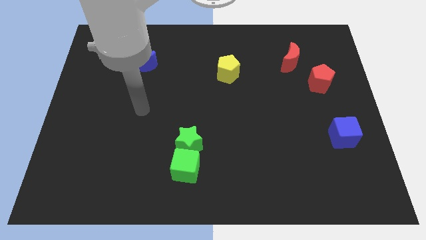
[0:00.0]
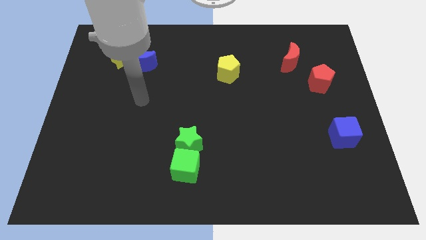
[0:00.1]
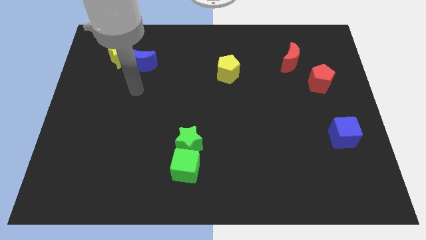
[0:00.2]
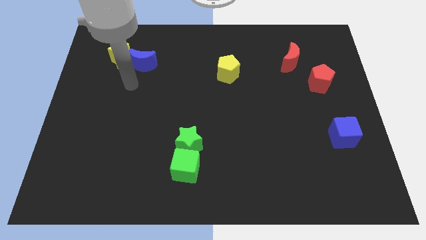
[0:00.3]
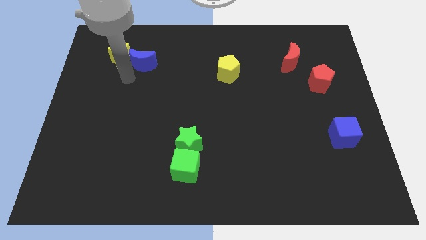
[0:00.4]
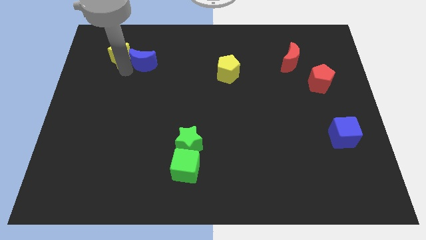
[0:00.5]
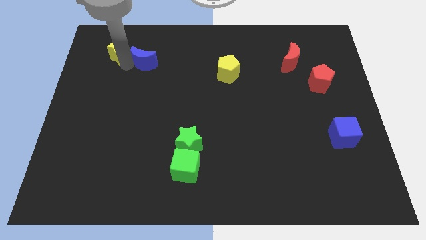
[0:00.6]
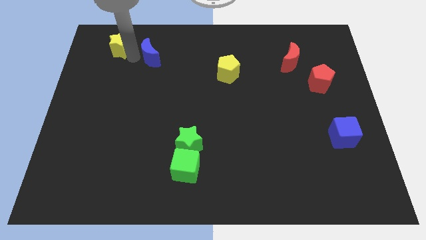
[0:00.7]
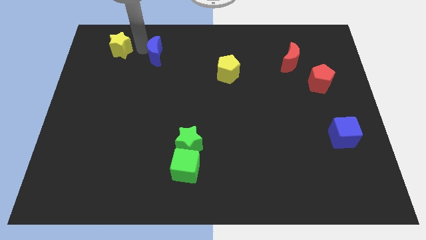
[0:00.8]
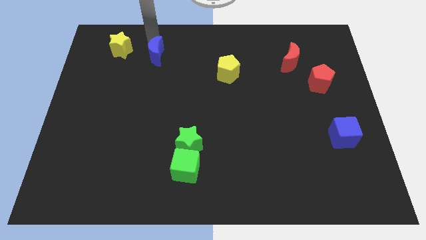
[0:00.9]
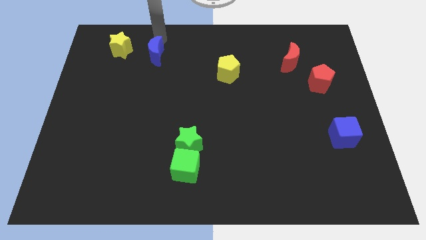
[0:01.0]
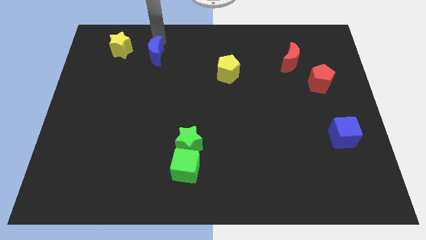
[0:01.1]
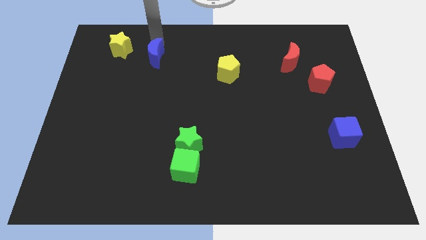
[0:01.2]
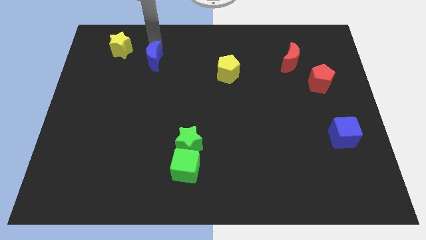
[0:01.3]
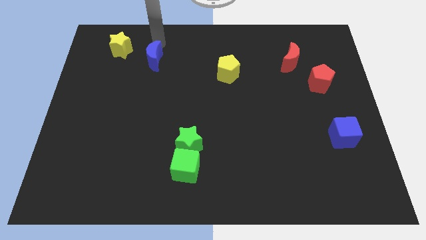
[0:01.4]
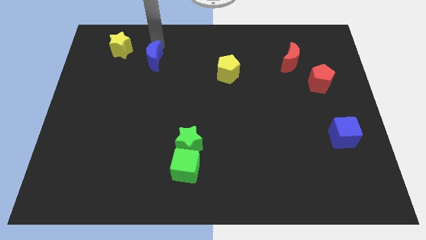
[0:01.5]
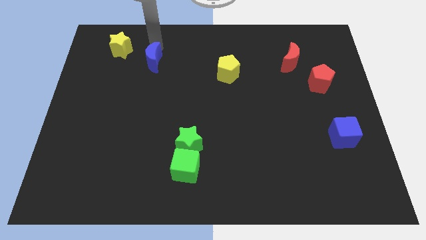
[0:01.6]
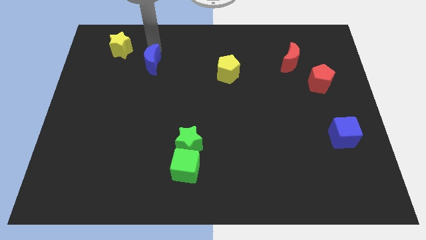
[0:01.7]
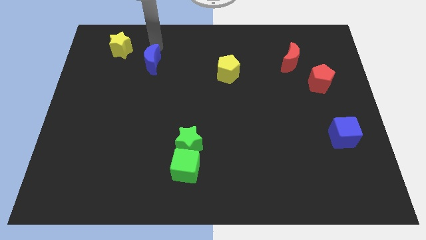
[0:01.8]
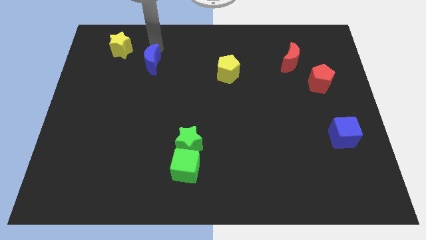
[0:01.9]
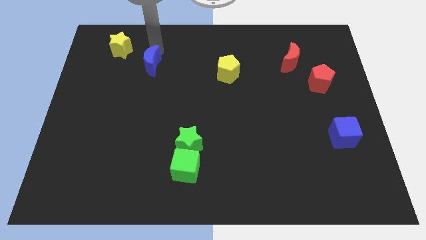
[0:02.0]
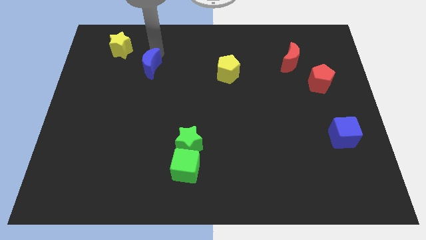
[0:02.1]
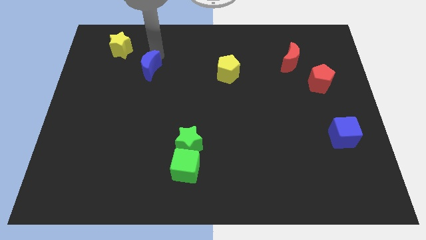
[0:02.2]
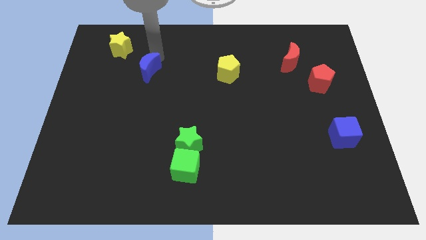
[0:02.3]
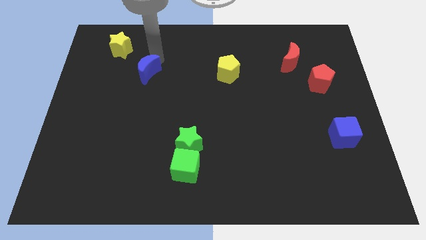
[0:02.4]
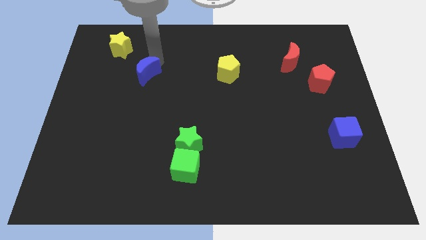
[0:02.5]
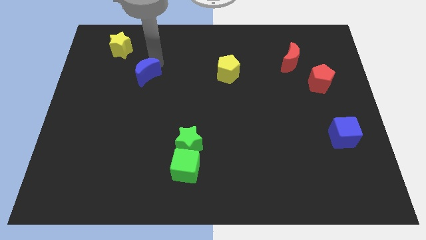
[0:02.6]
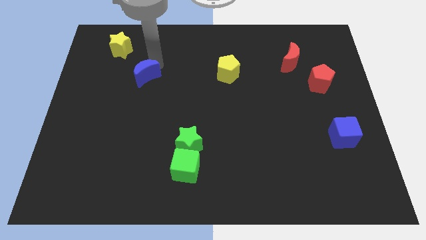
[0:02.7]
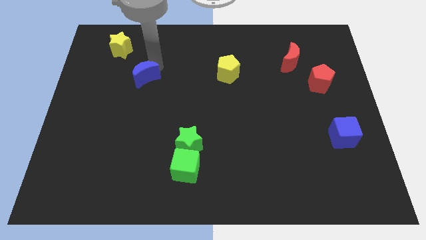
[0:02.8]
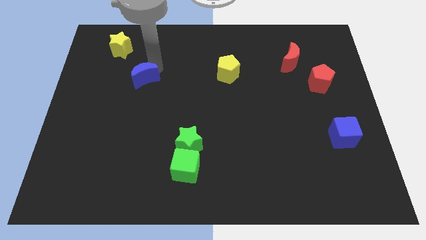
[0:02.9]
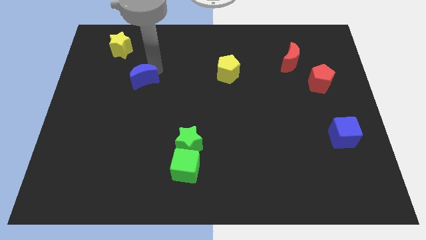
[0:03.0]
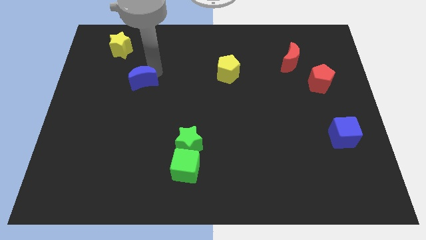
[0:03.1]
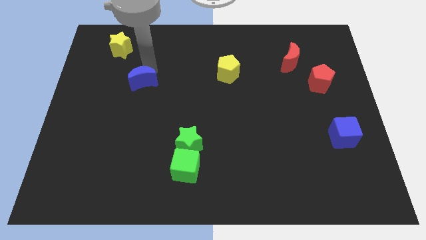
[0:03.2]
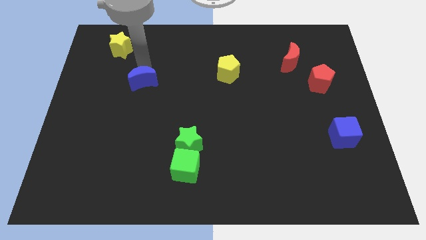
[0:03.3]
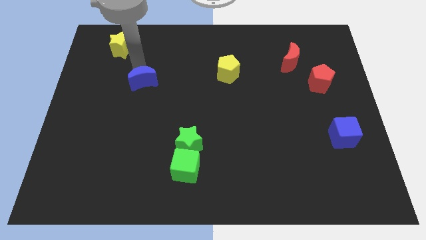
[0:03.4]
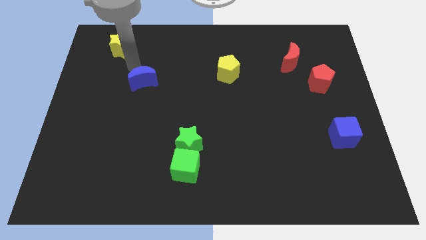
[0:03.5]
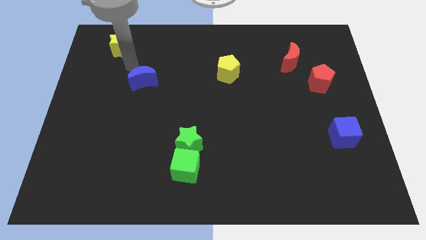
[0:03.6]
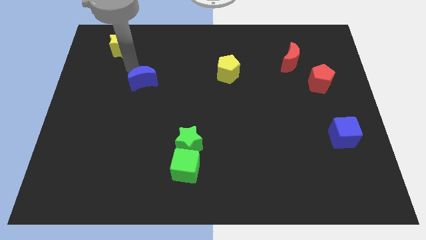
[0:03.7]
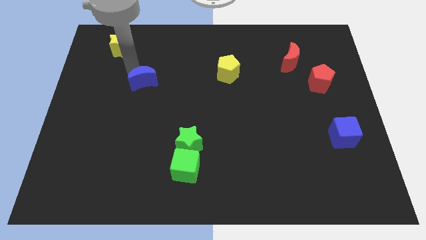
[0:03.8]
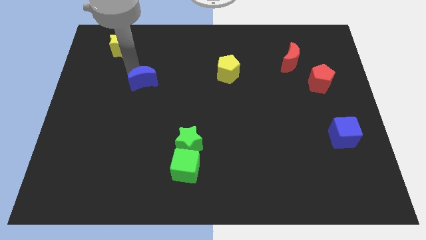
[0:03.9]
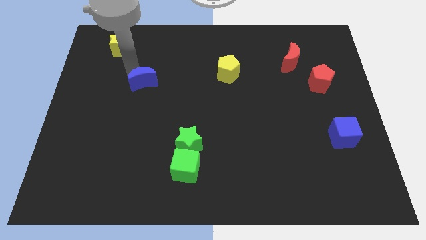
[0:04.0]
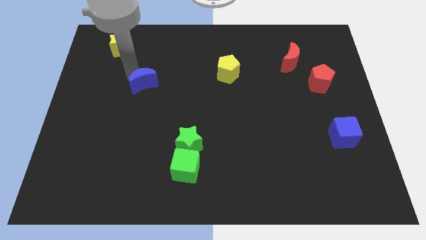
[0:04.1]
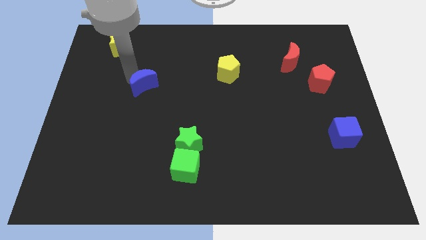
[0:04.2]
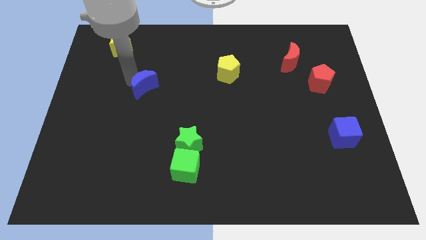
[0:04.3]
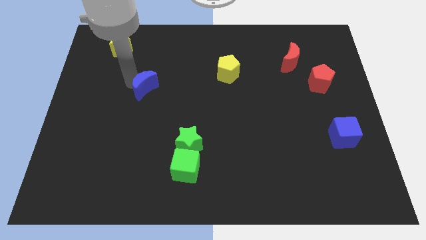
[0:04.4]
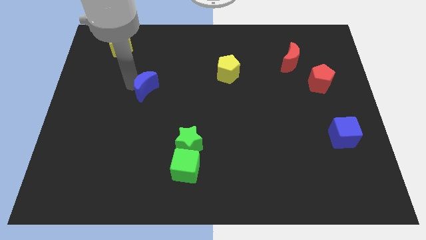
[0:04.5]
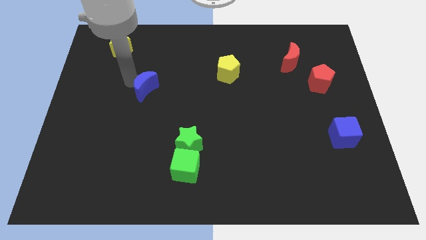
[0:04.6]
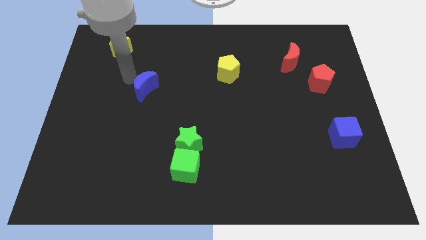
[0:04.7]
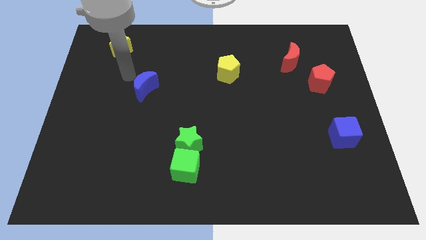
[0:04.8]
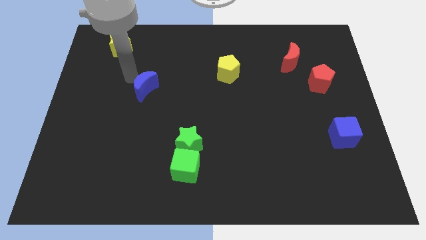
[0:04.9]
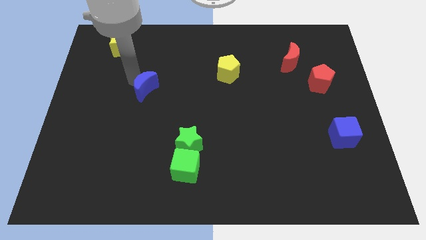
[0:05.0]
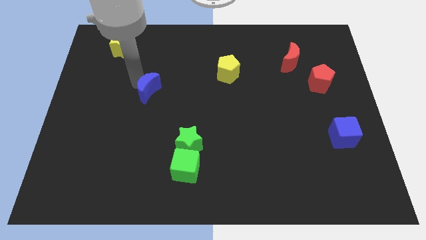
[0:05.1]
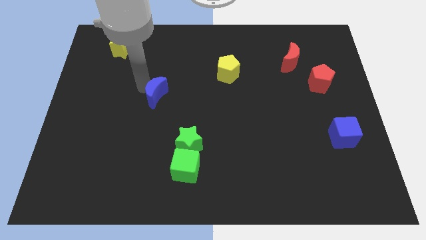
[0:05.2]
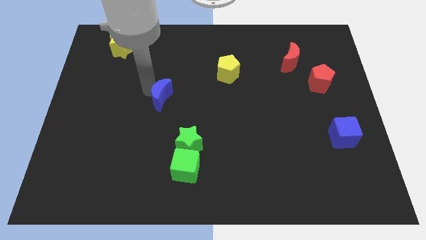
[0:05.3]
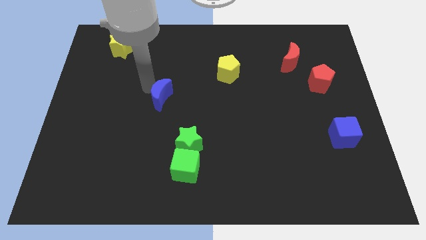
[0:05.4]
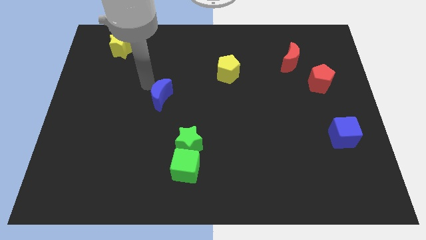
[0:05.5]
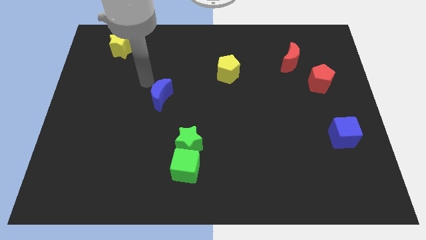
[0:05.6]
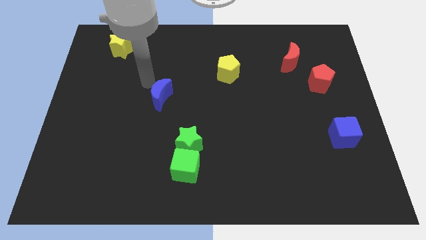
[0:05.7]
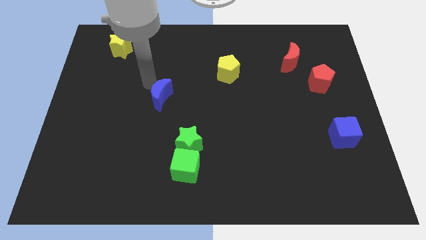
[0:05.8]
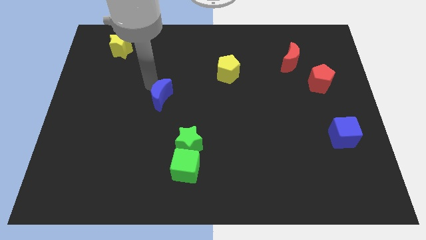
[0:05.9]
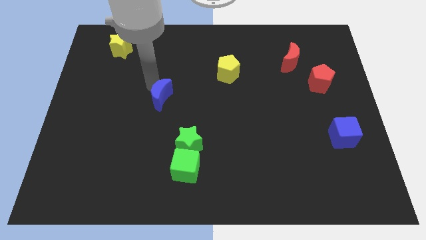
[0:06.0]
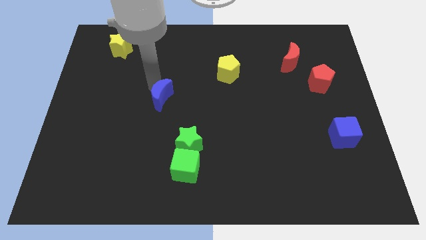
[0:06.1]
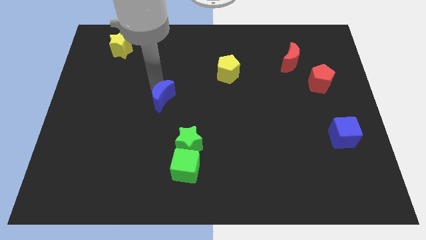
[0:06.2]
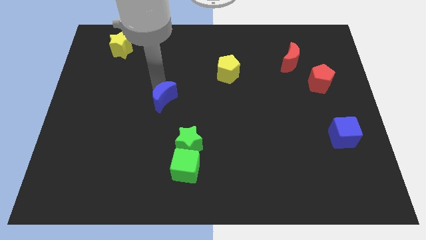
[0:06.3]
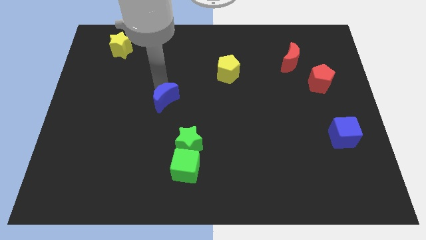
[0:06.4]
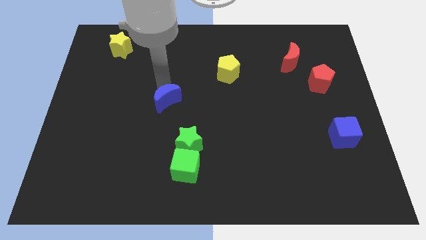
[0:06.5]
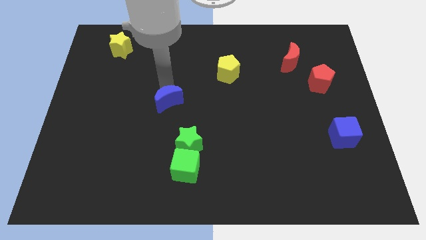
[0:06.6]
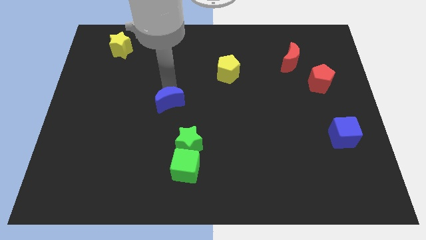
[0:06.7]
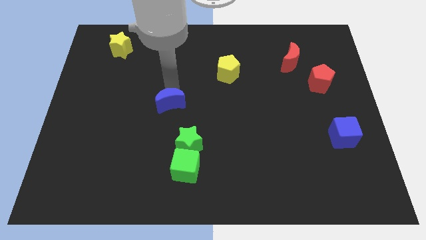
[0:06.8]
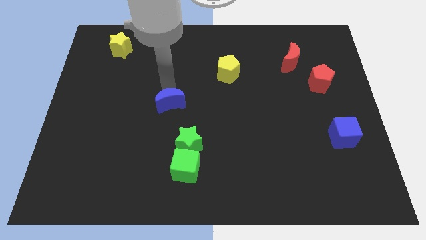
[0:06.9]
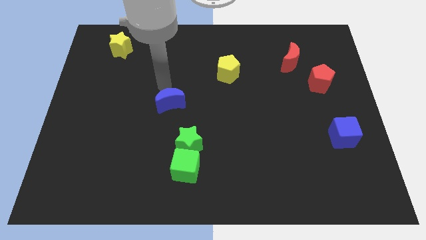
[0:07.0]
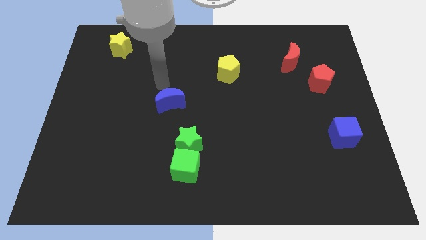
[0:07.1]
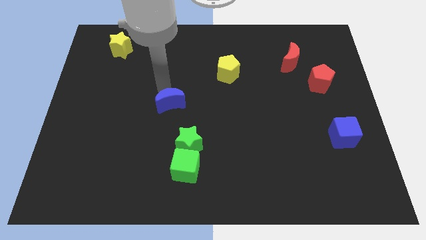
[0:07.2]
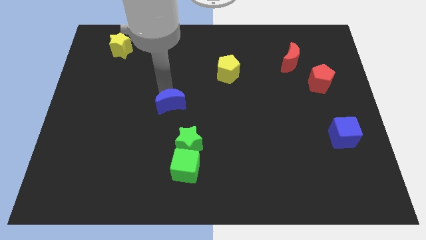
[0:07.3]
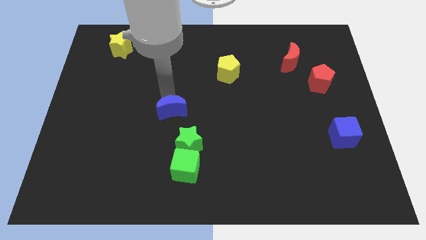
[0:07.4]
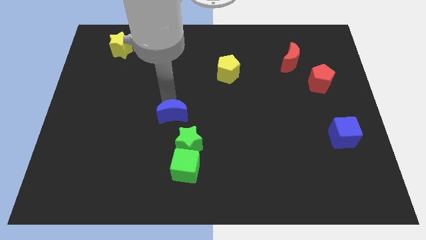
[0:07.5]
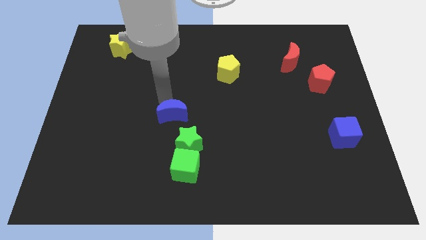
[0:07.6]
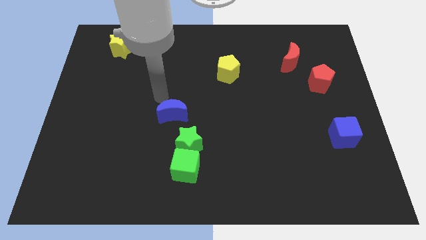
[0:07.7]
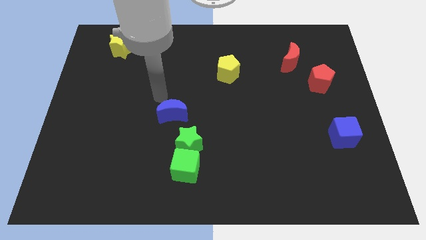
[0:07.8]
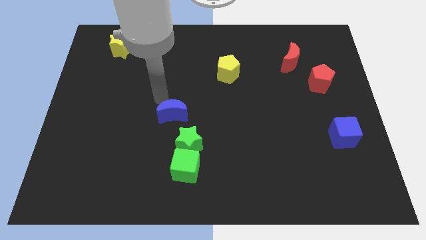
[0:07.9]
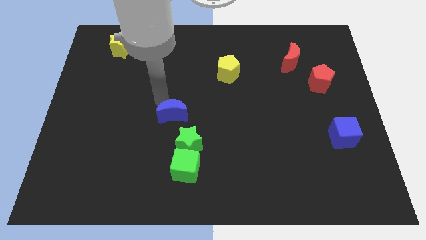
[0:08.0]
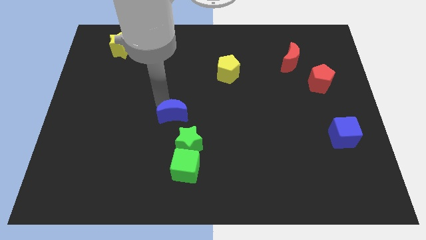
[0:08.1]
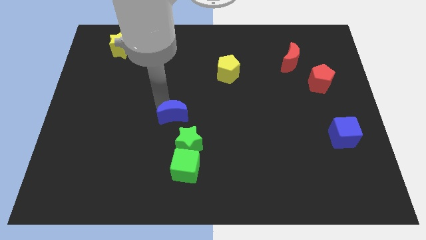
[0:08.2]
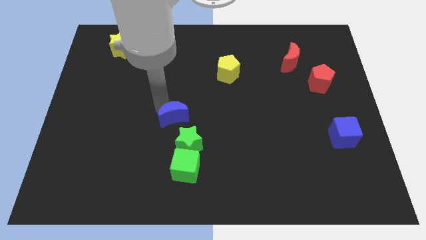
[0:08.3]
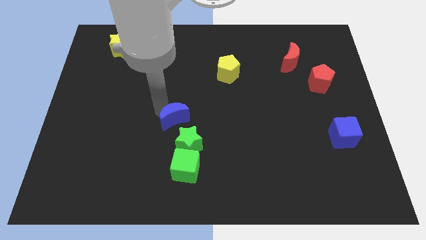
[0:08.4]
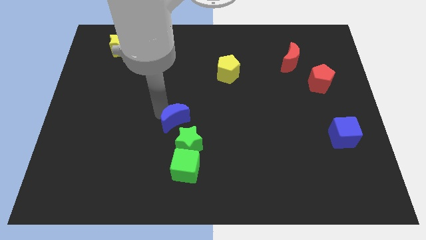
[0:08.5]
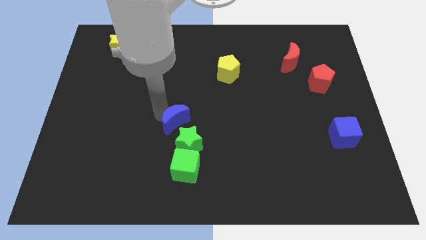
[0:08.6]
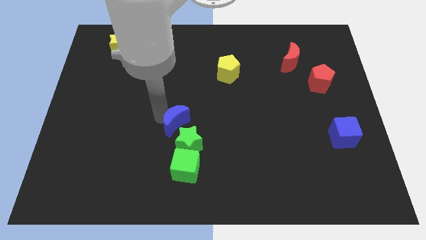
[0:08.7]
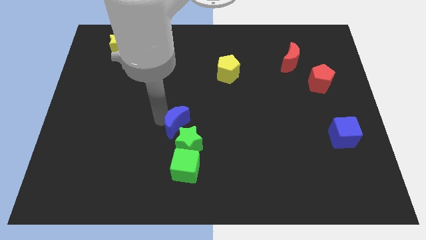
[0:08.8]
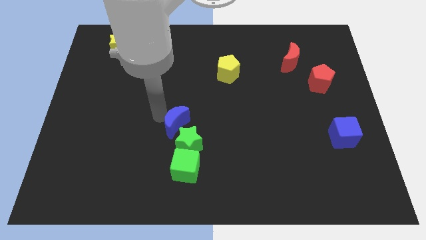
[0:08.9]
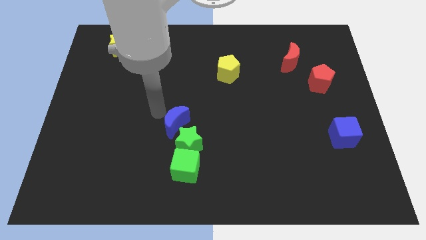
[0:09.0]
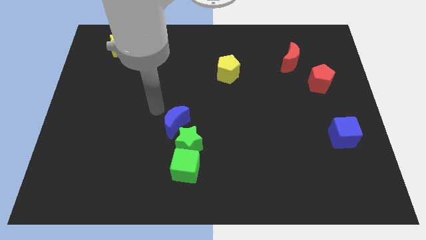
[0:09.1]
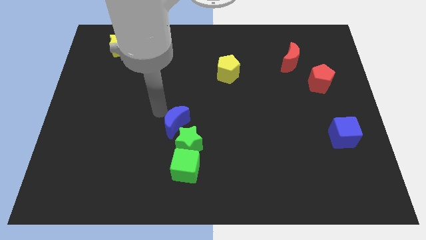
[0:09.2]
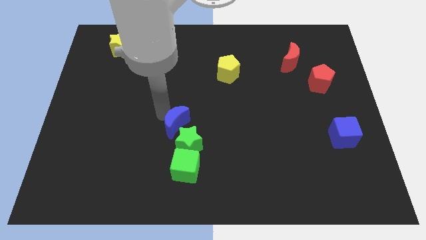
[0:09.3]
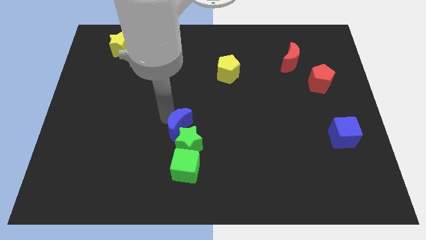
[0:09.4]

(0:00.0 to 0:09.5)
push the blue moon to the green star
